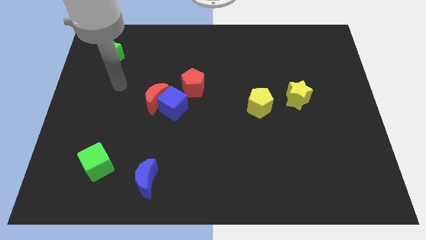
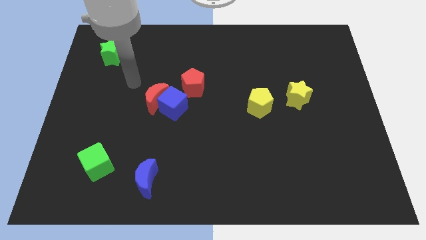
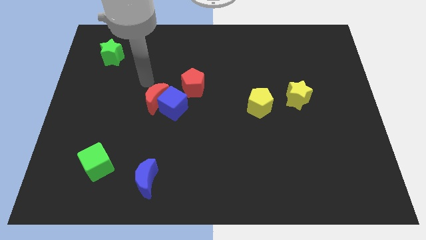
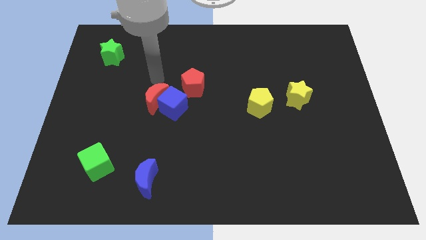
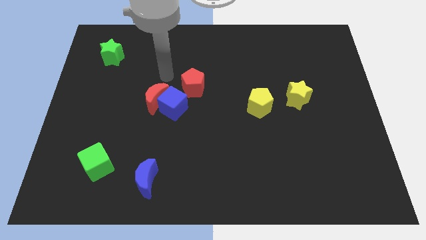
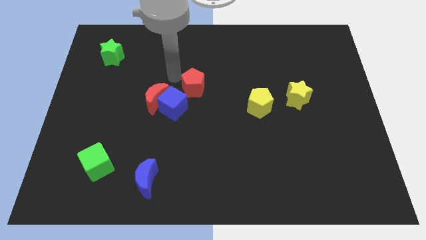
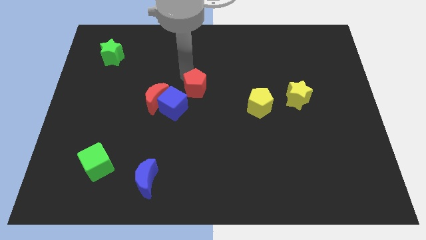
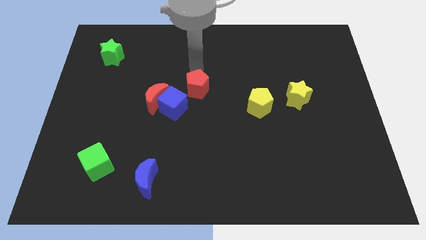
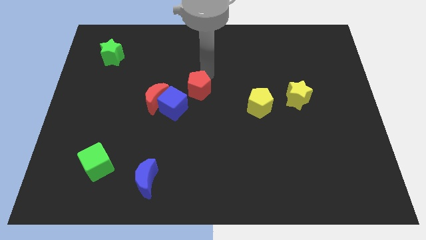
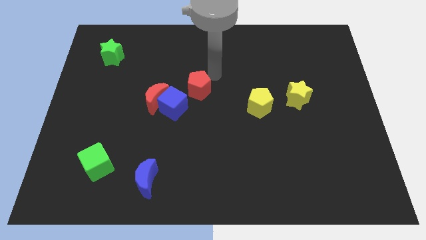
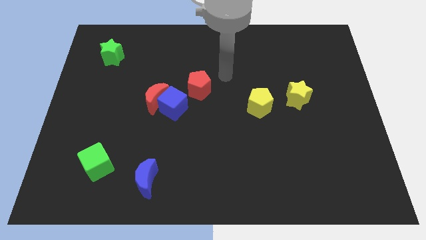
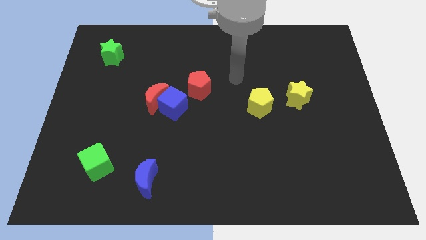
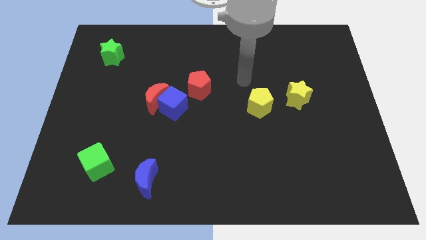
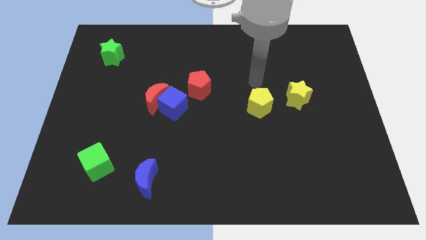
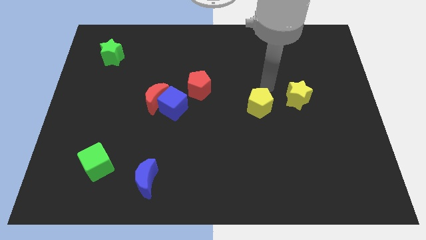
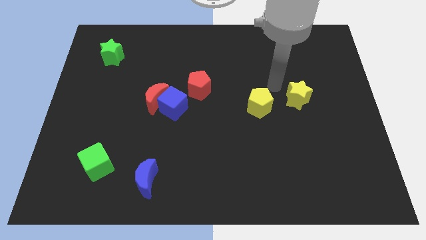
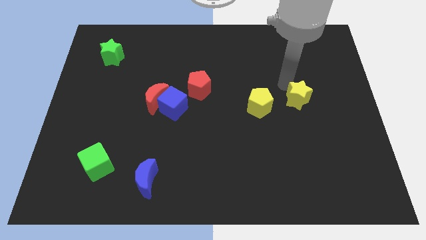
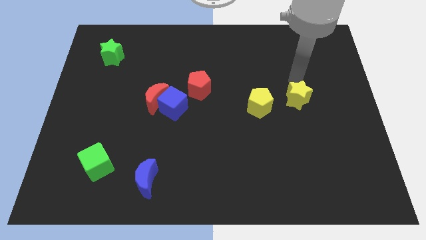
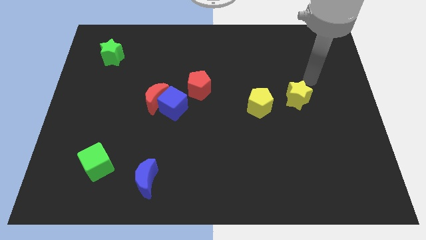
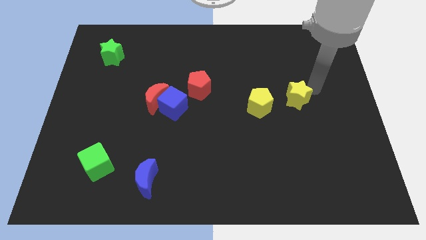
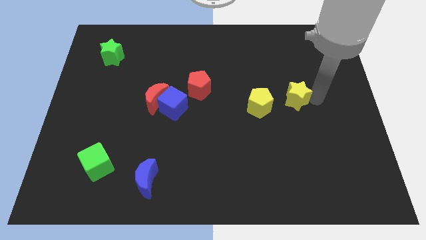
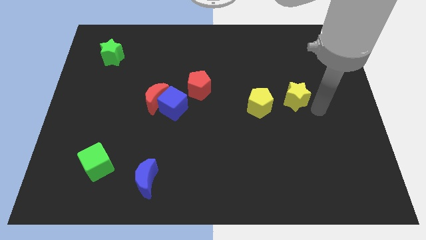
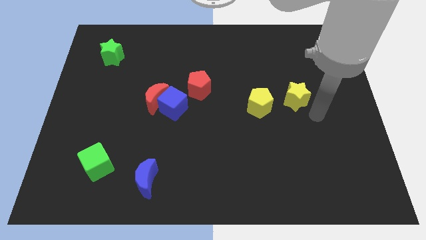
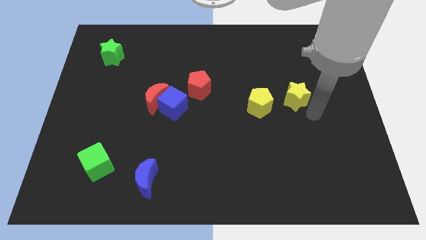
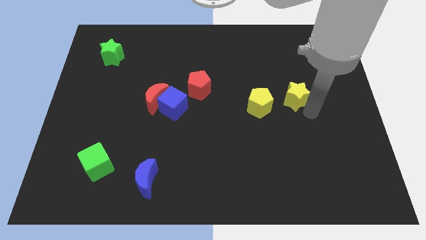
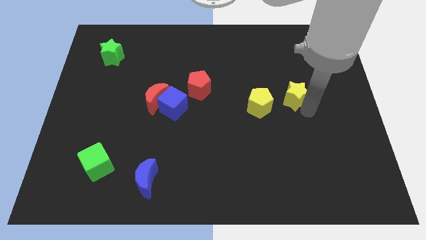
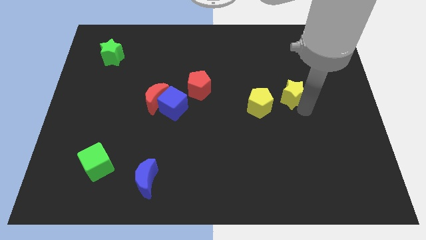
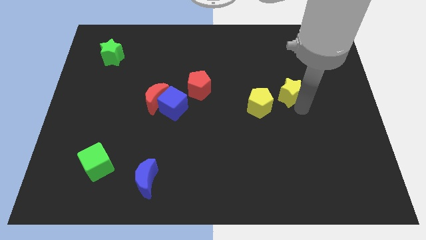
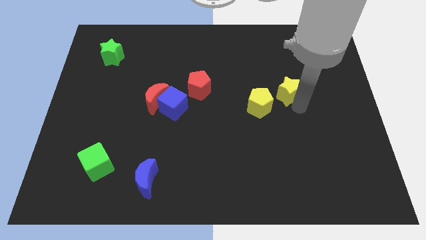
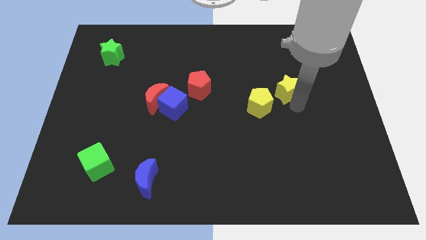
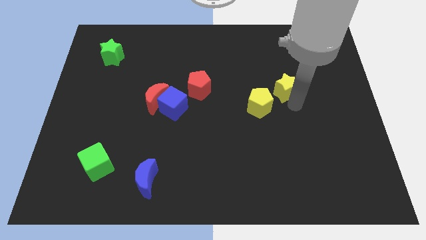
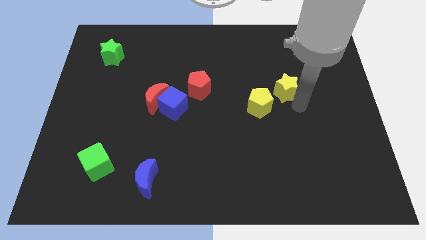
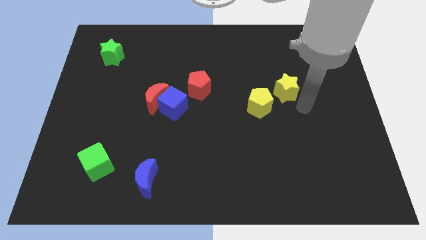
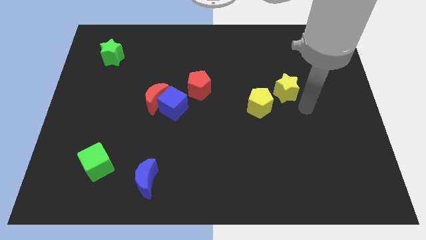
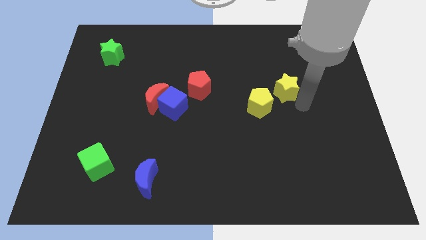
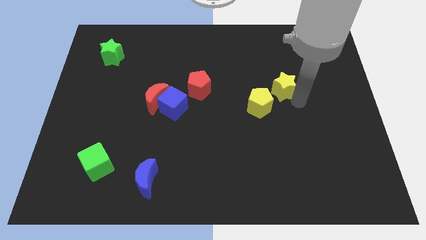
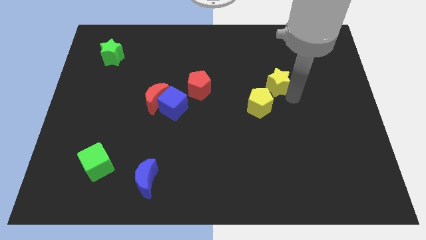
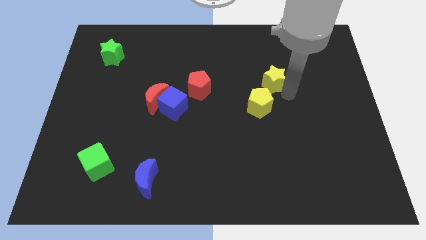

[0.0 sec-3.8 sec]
push the yellow star a bit up and to the left diagonally

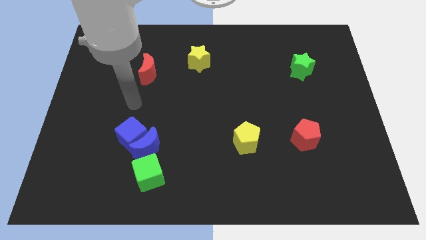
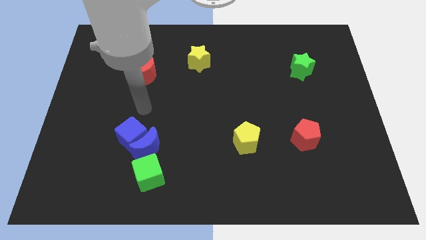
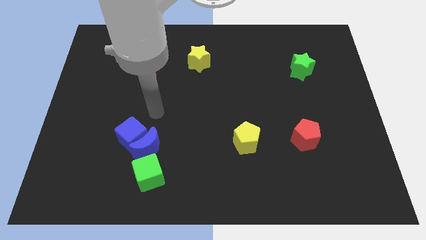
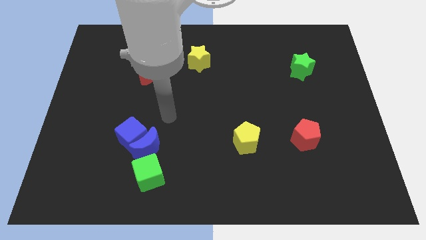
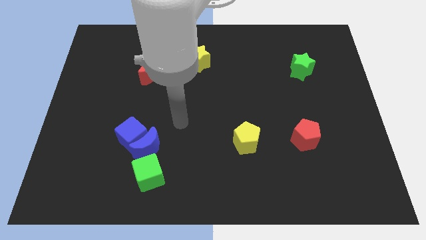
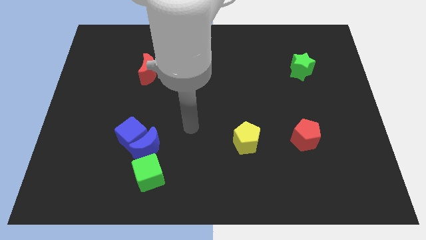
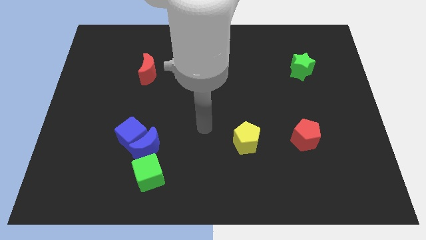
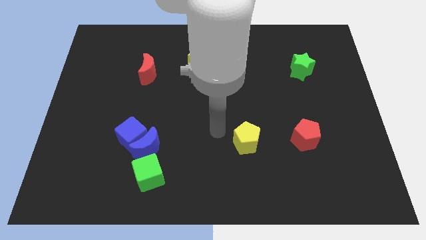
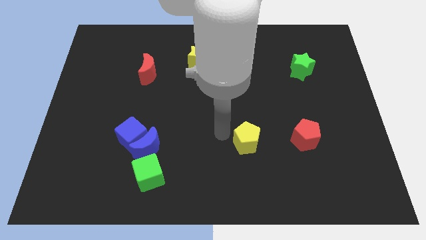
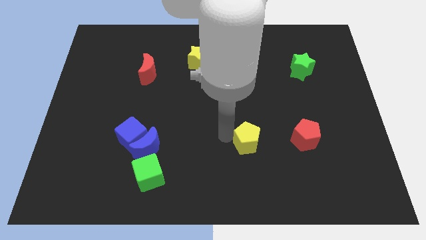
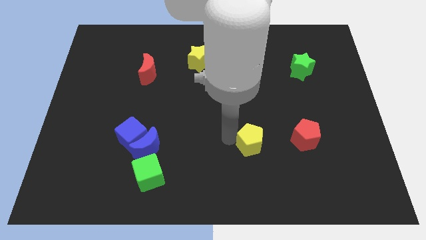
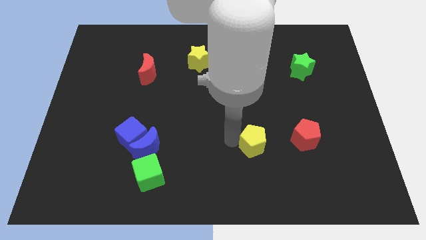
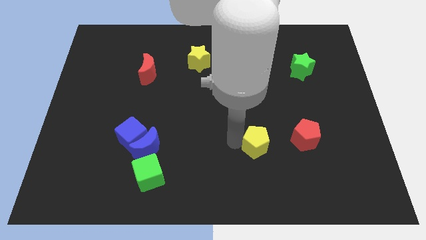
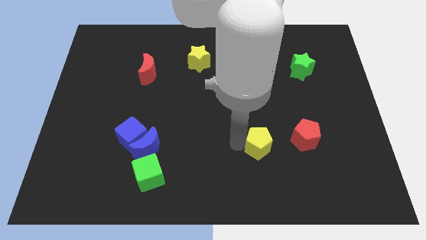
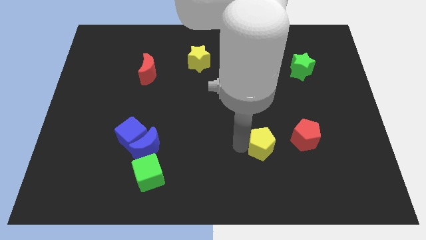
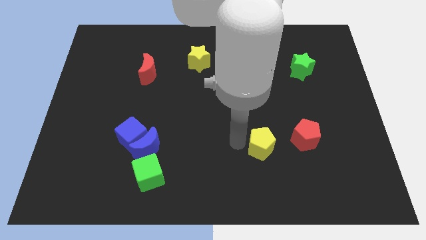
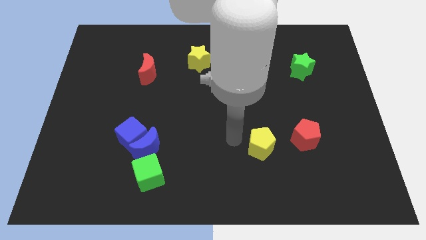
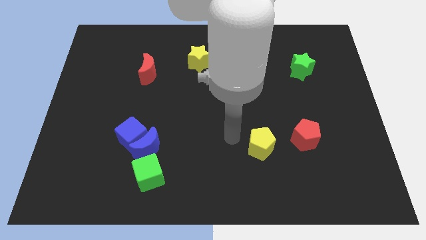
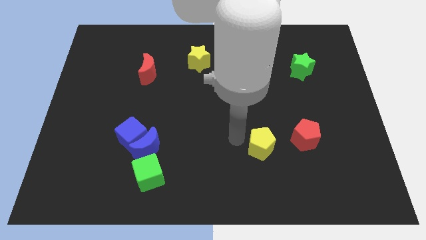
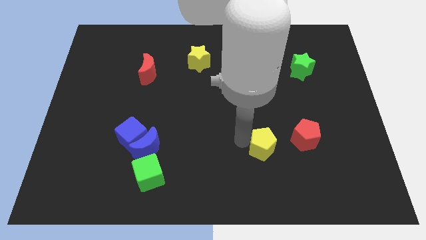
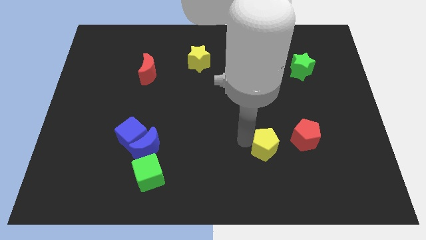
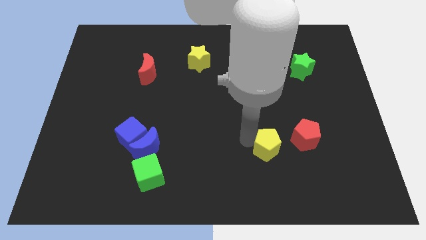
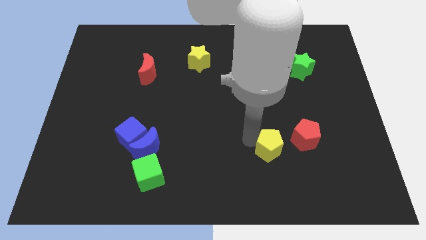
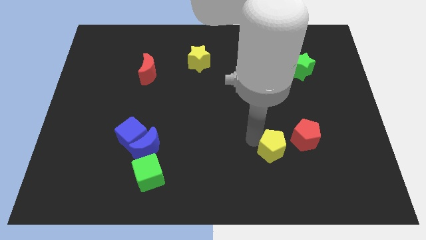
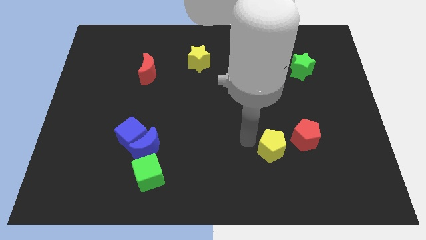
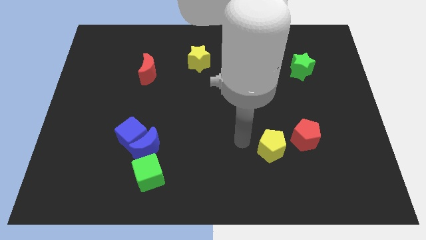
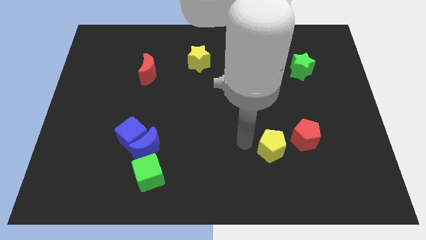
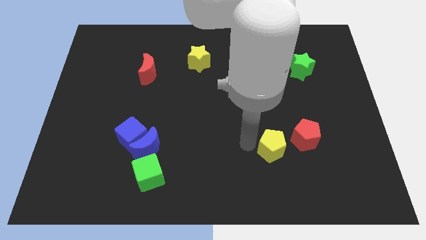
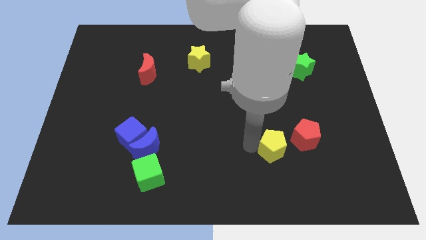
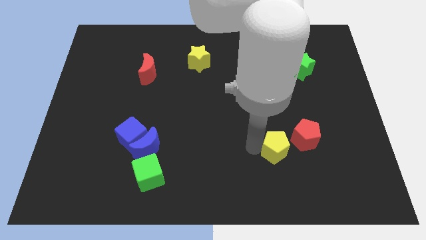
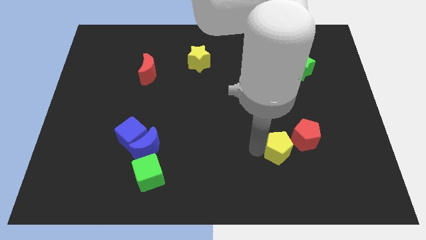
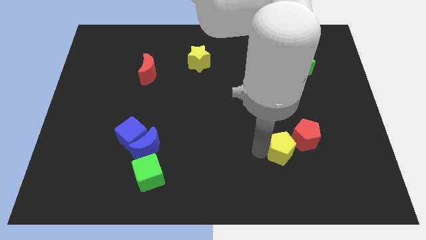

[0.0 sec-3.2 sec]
move the yellow pentagon somewhat right

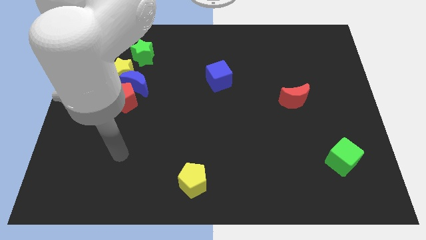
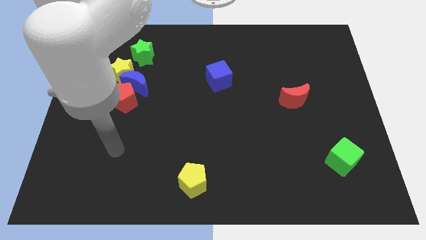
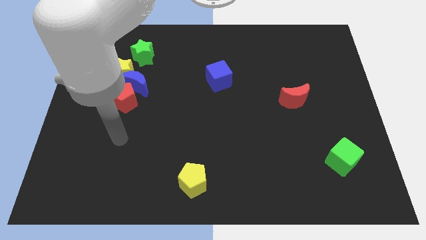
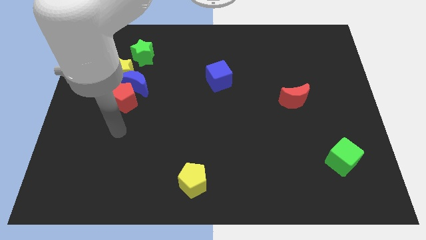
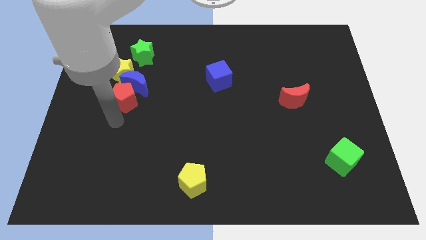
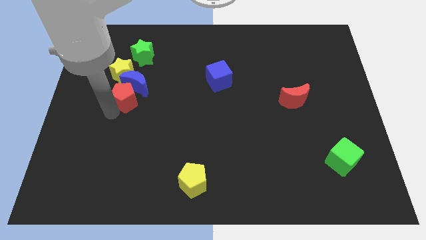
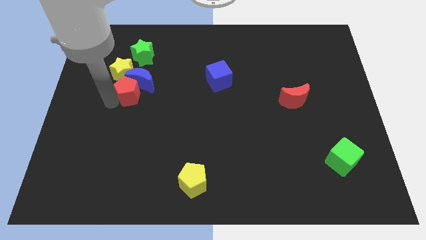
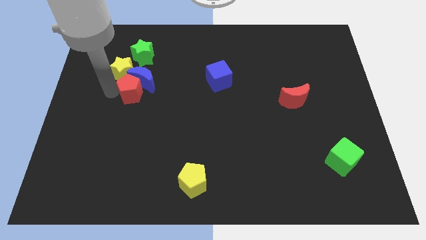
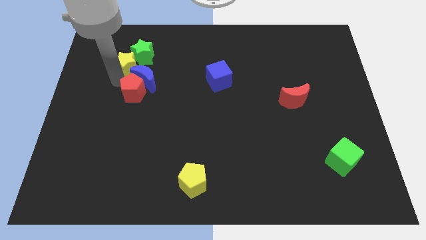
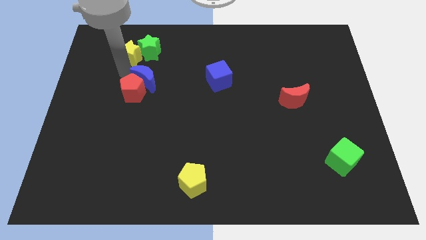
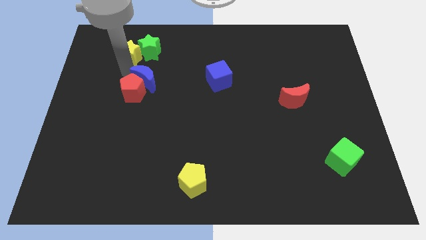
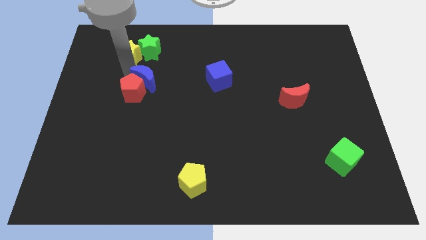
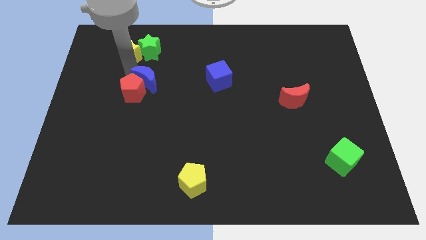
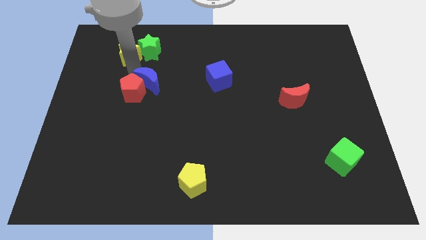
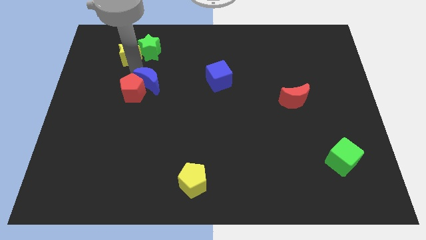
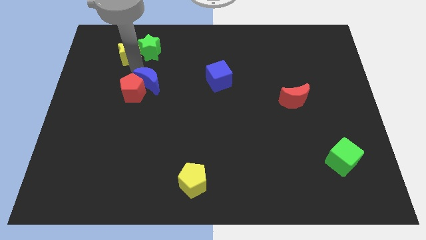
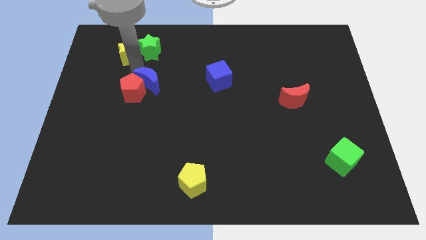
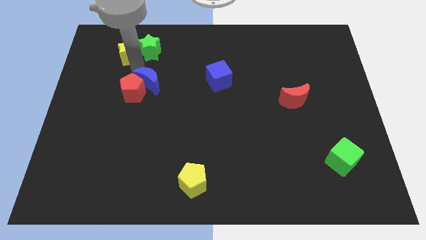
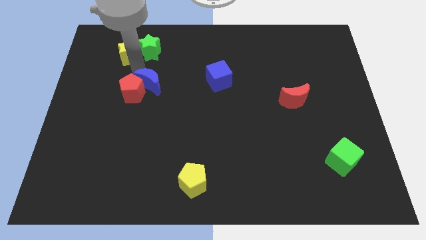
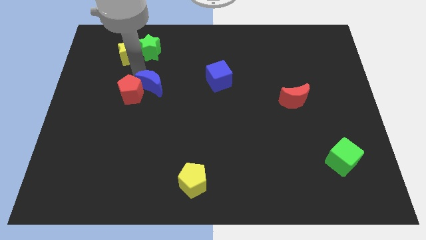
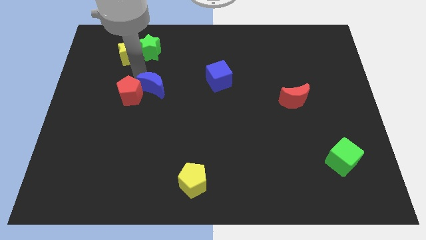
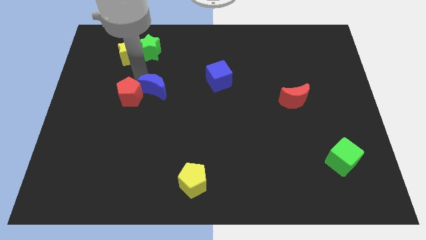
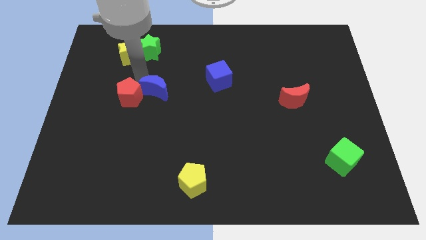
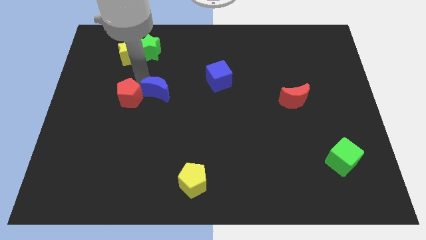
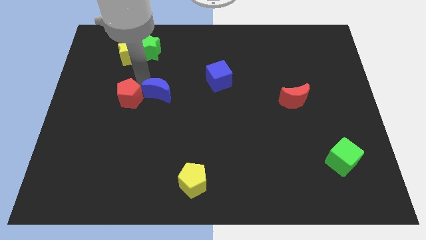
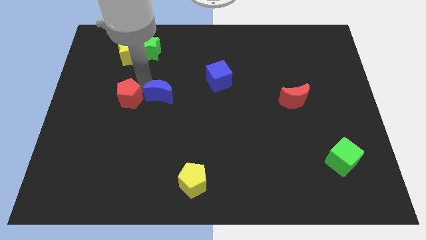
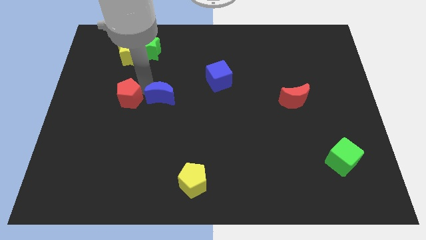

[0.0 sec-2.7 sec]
slide the blue moon down and then to the right somewhat
